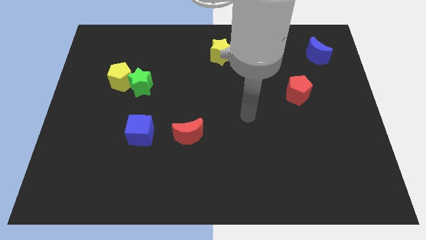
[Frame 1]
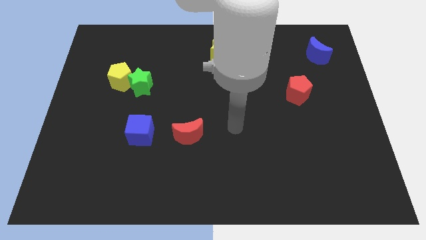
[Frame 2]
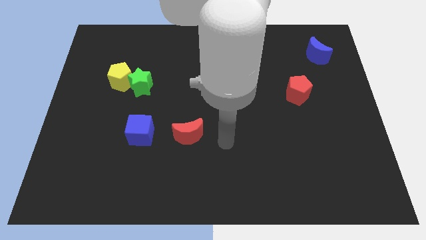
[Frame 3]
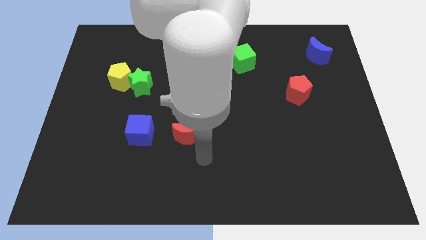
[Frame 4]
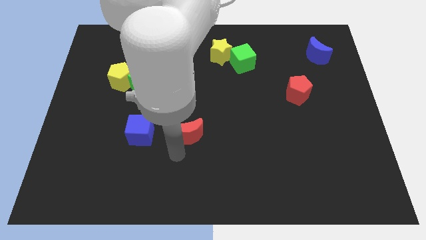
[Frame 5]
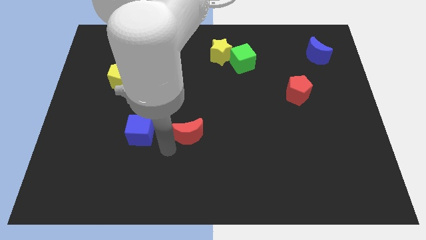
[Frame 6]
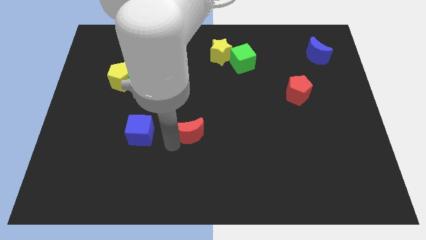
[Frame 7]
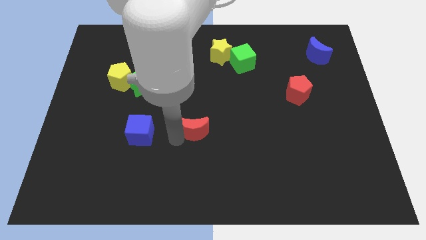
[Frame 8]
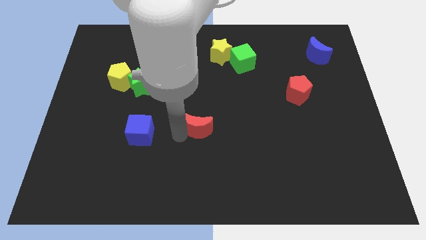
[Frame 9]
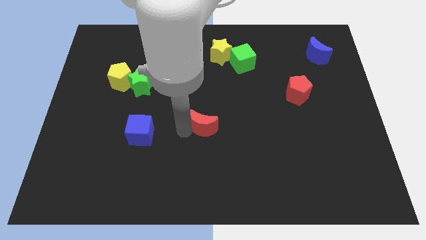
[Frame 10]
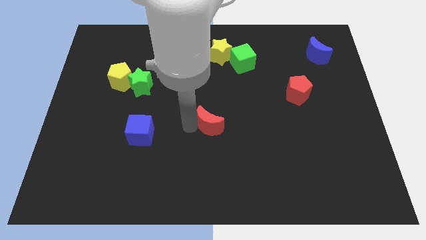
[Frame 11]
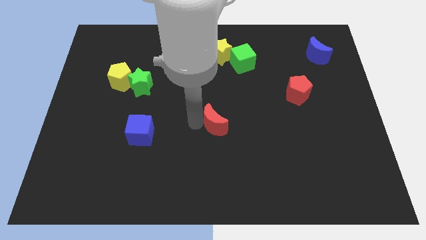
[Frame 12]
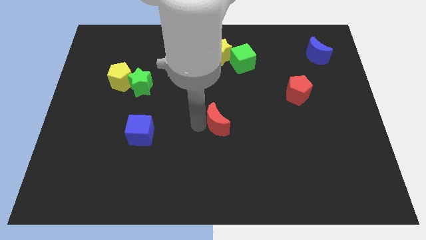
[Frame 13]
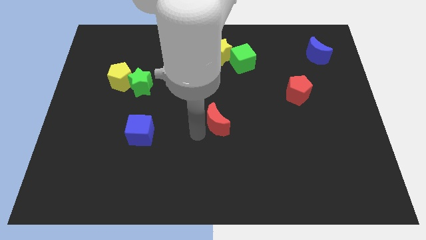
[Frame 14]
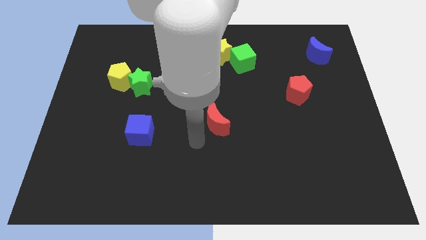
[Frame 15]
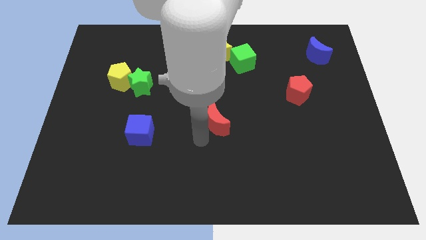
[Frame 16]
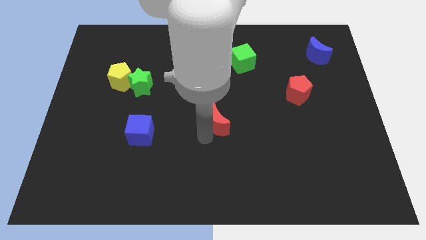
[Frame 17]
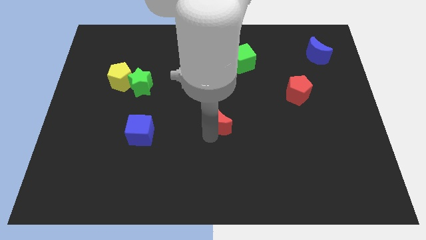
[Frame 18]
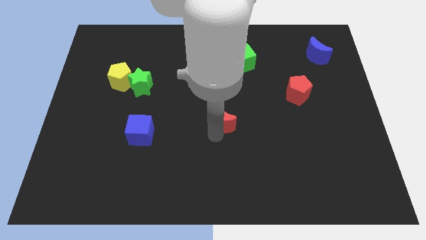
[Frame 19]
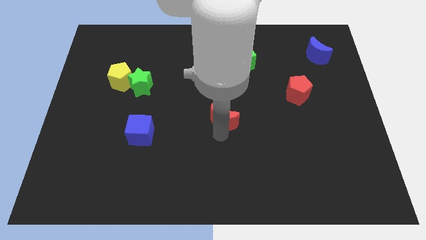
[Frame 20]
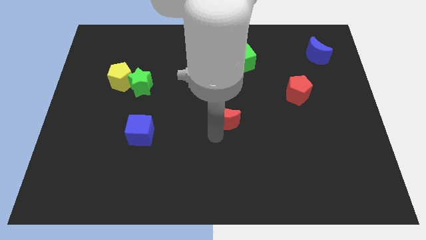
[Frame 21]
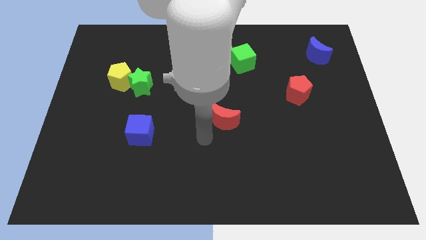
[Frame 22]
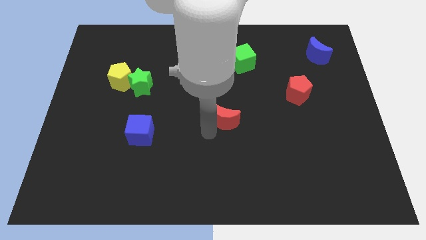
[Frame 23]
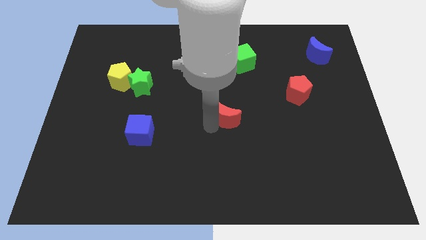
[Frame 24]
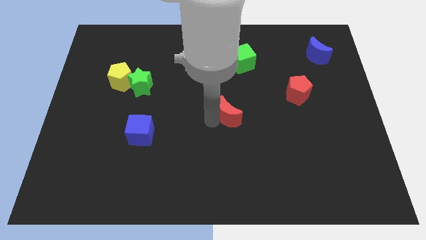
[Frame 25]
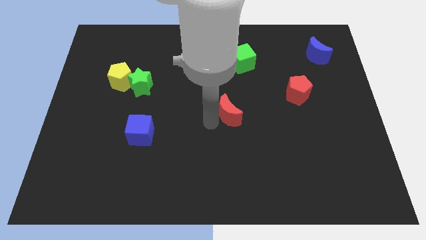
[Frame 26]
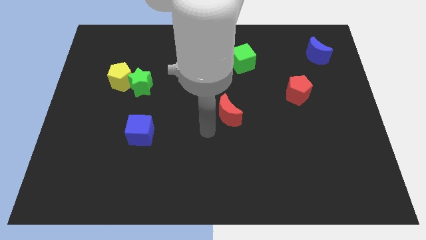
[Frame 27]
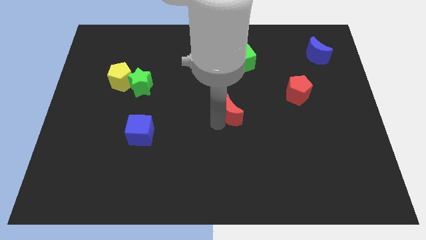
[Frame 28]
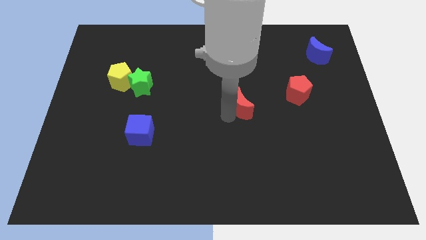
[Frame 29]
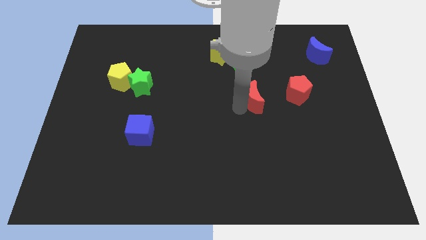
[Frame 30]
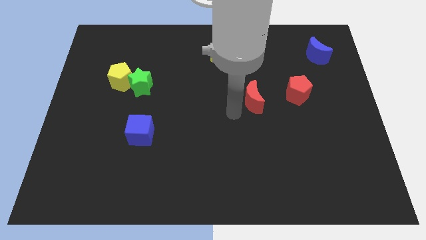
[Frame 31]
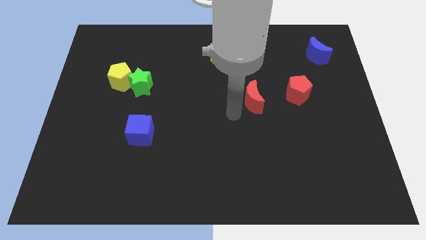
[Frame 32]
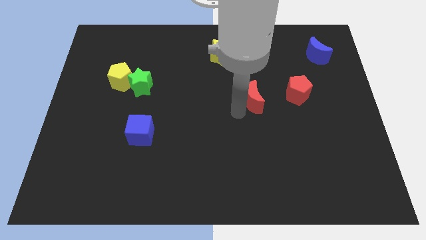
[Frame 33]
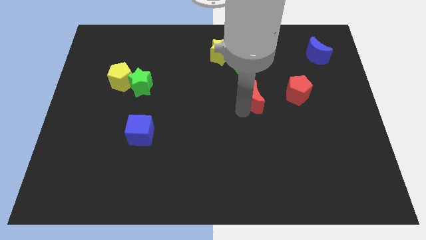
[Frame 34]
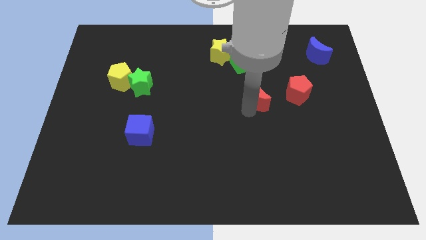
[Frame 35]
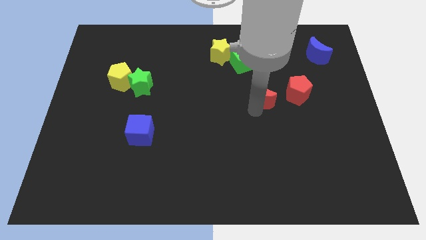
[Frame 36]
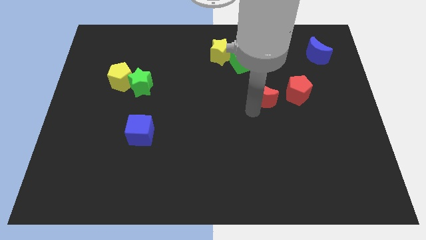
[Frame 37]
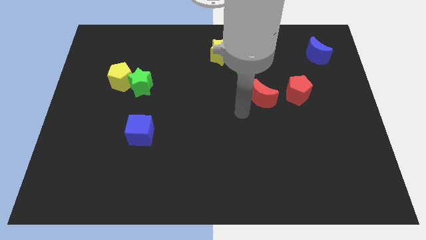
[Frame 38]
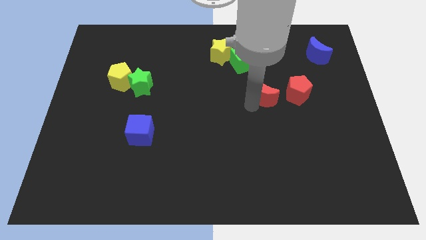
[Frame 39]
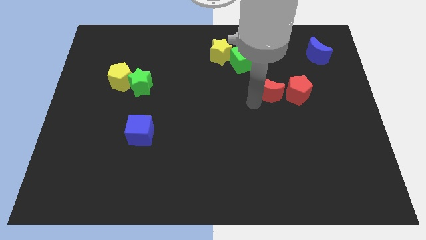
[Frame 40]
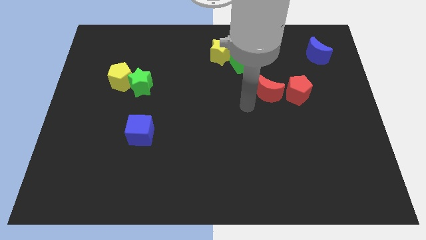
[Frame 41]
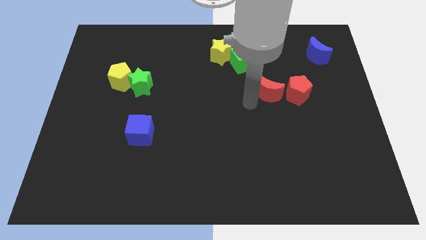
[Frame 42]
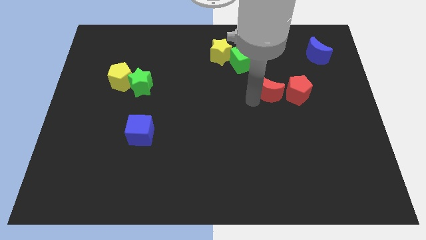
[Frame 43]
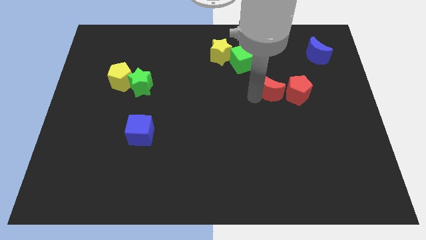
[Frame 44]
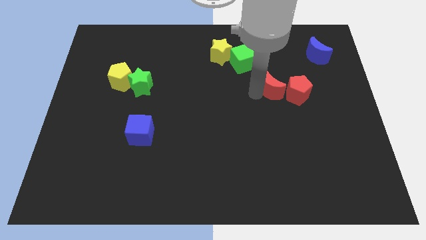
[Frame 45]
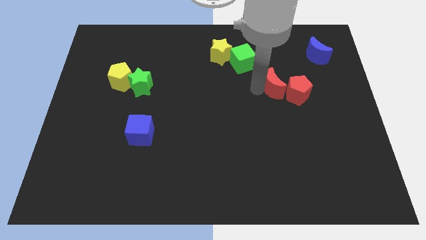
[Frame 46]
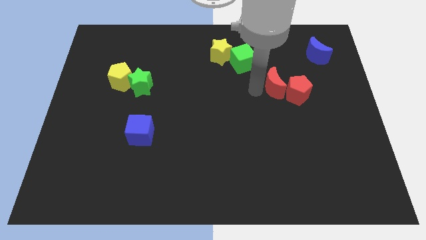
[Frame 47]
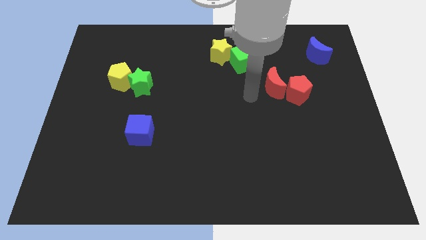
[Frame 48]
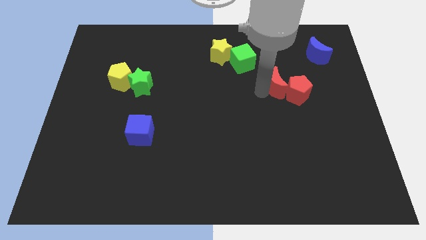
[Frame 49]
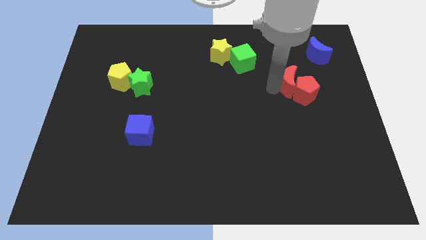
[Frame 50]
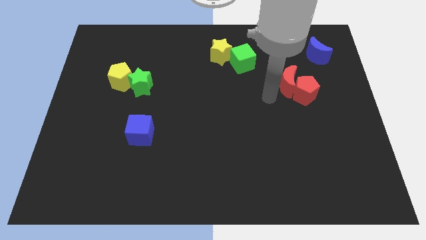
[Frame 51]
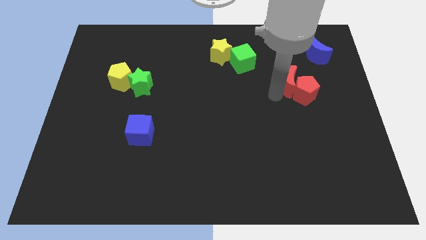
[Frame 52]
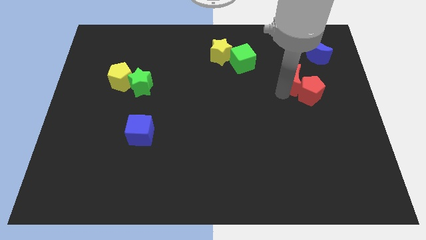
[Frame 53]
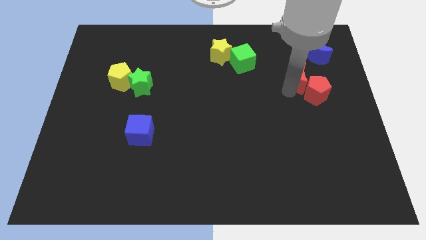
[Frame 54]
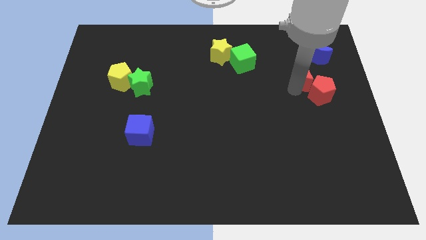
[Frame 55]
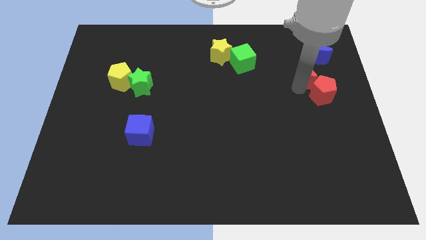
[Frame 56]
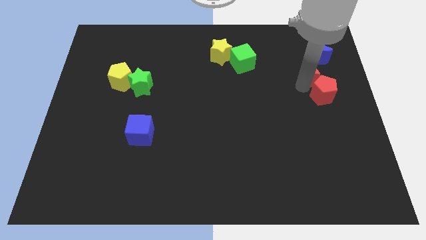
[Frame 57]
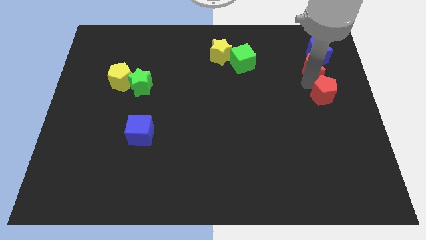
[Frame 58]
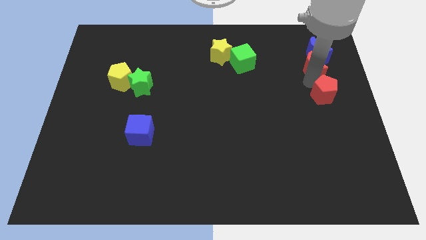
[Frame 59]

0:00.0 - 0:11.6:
move the red moon next to the blue moon
